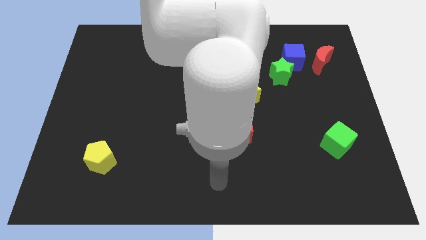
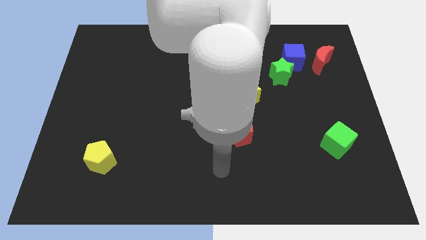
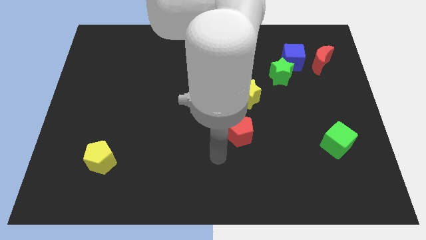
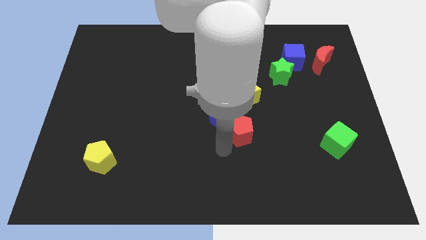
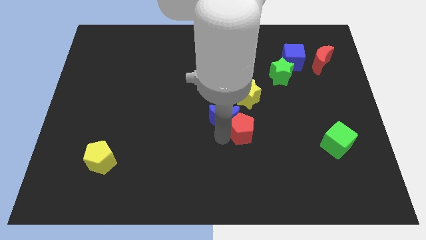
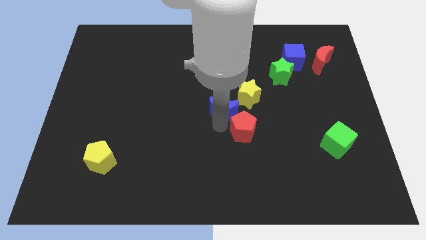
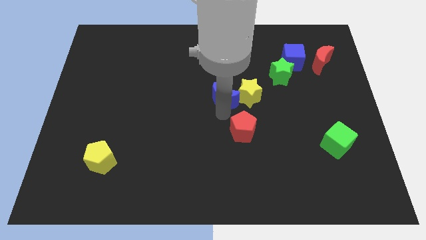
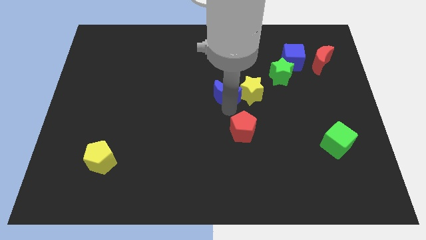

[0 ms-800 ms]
move the red pentagon away from the blue moon

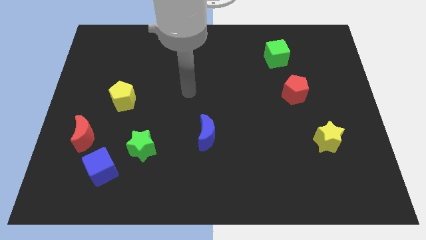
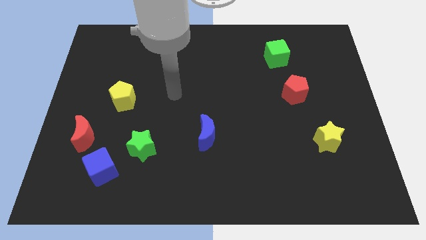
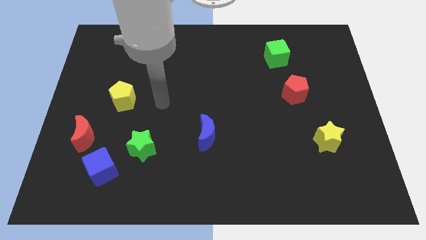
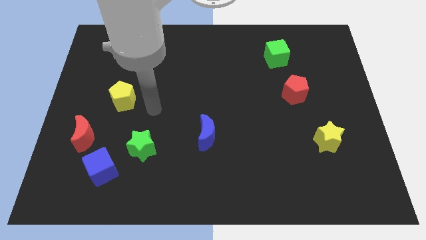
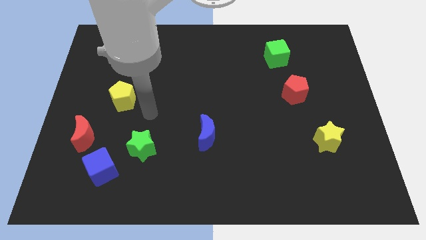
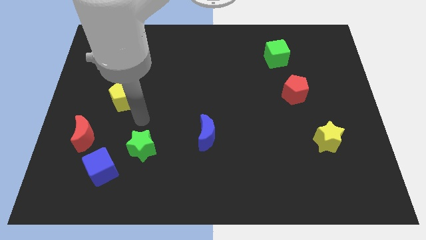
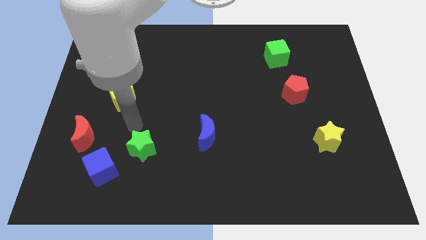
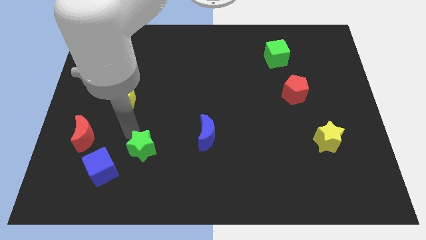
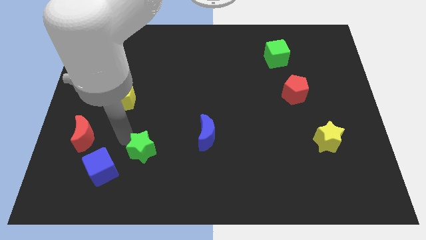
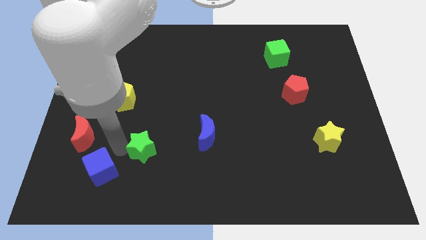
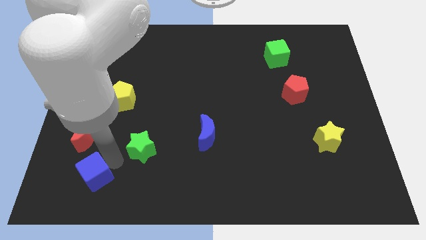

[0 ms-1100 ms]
move the green star away from the blue cube

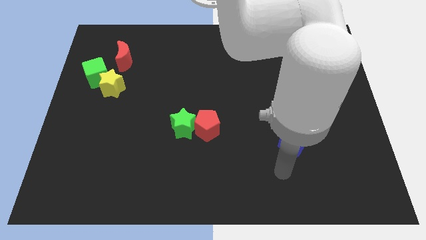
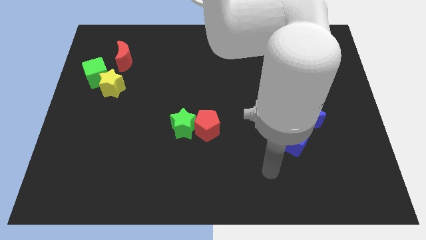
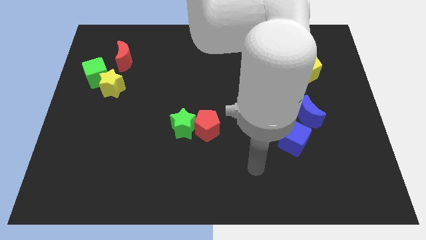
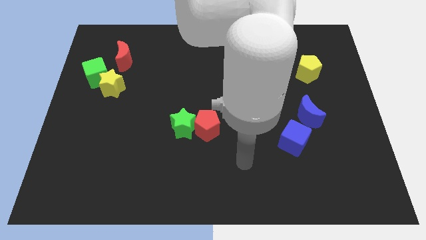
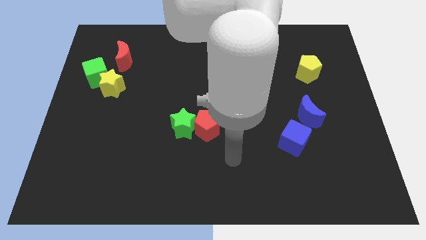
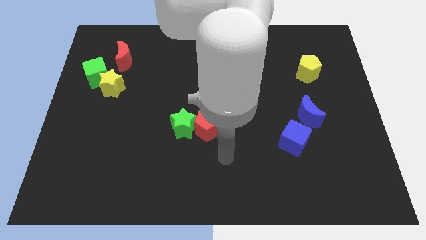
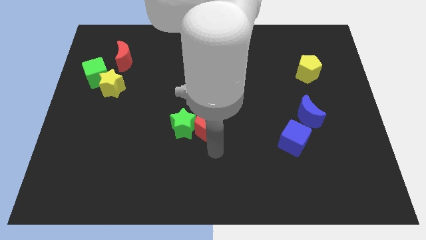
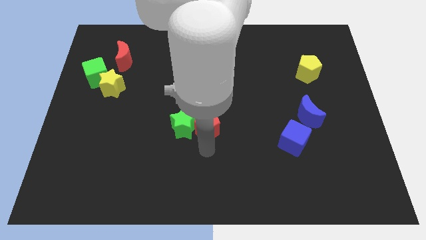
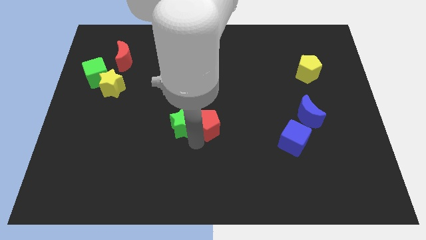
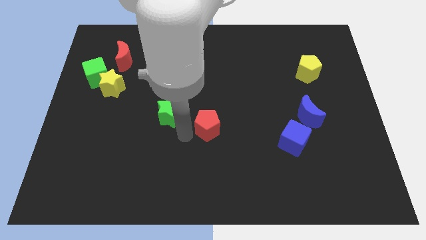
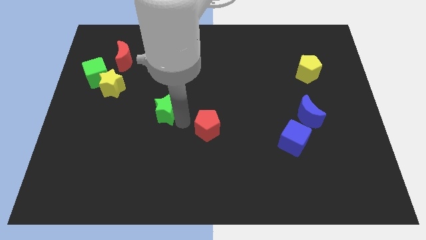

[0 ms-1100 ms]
separate the red pentagon from the green star

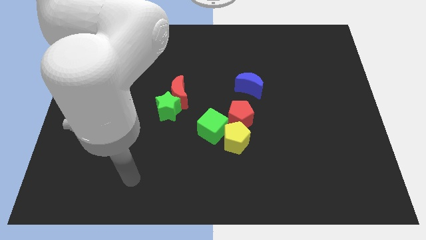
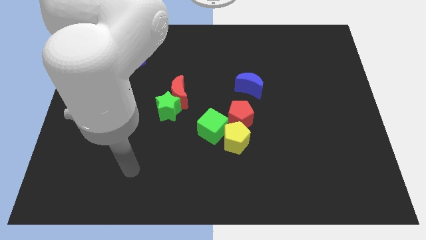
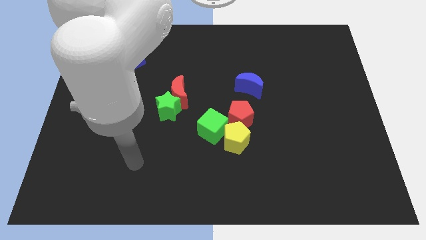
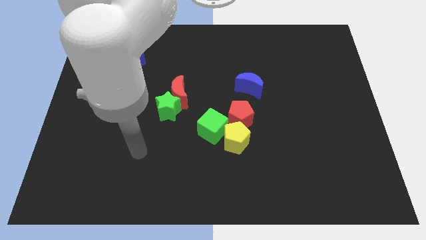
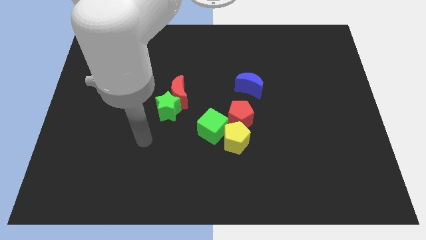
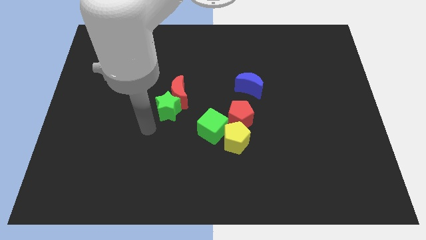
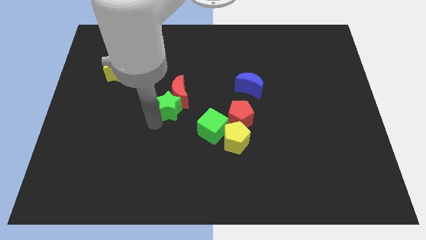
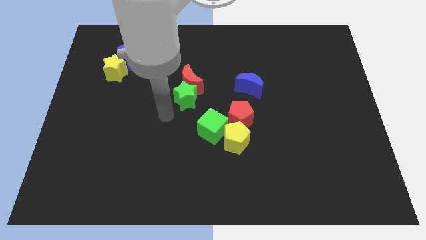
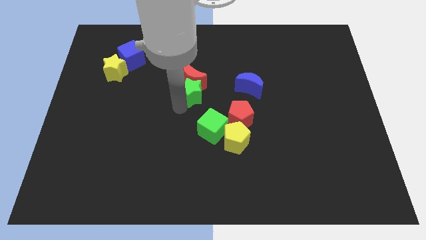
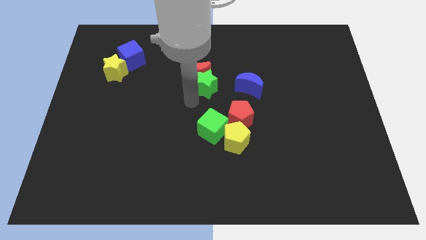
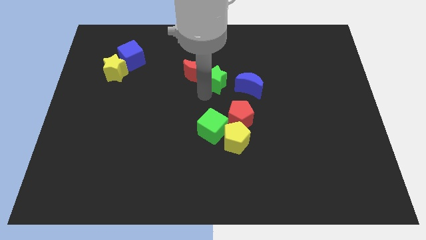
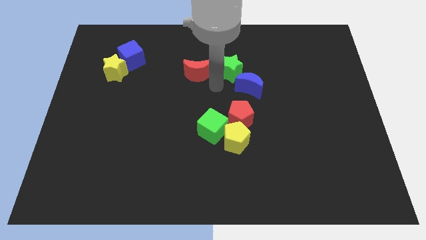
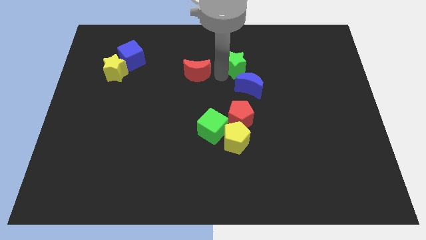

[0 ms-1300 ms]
pull the red moon apart from the green star

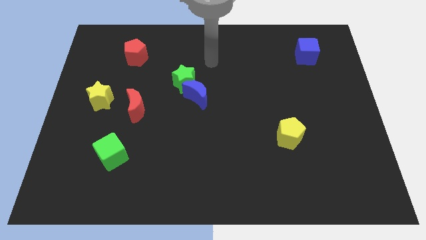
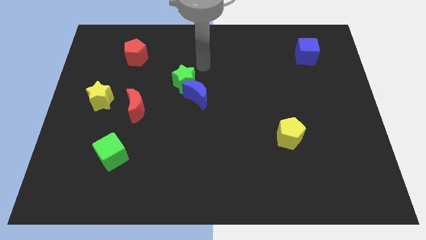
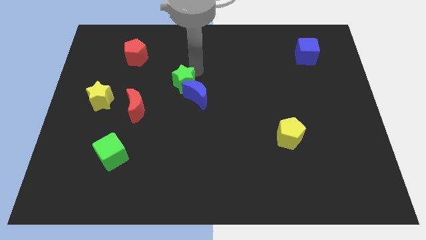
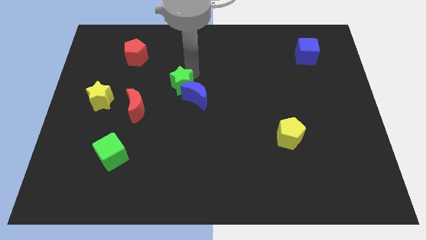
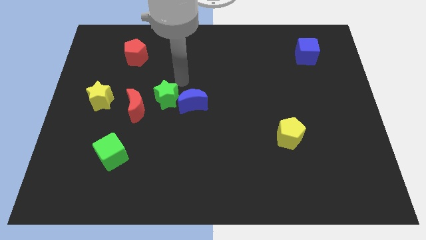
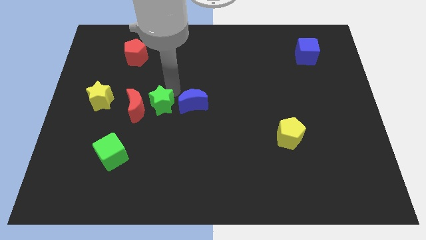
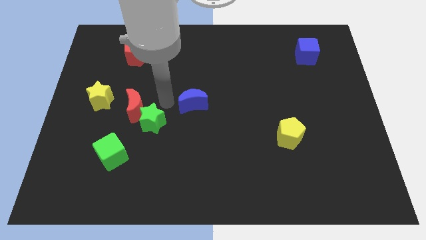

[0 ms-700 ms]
pull the blue moon apart from the green star

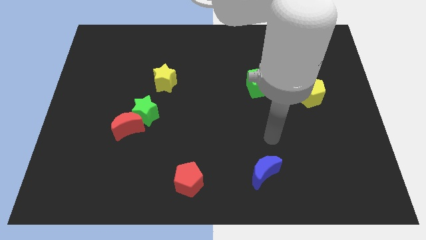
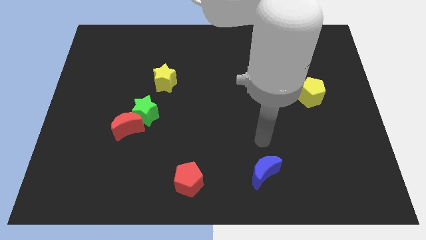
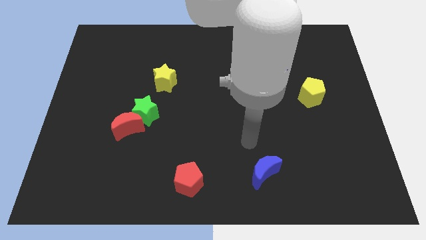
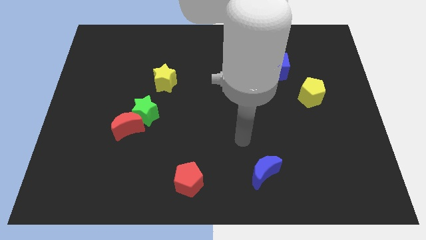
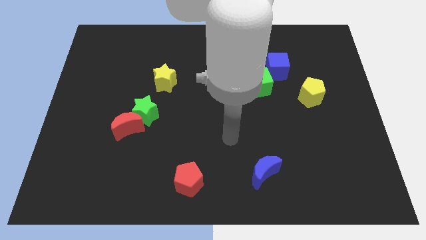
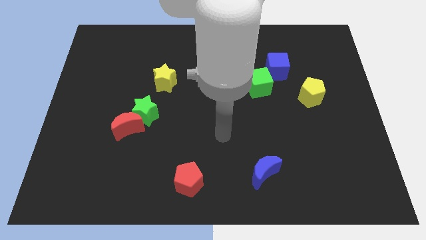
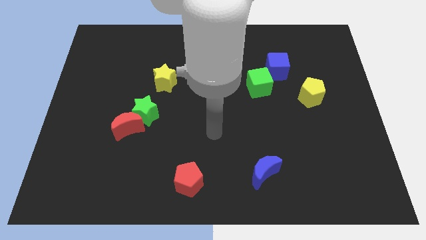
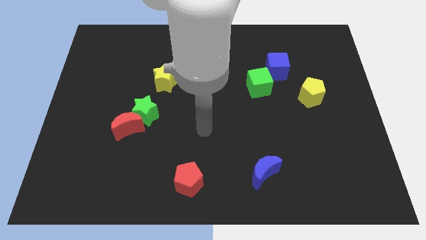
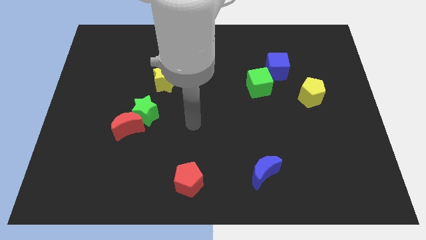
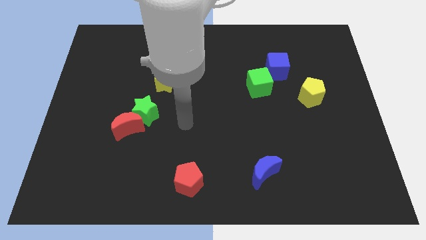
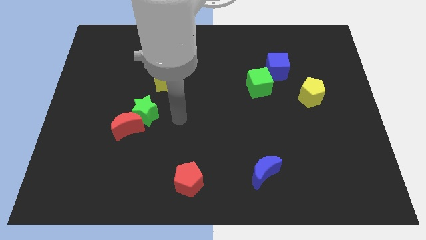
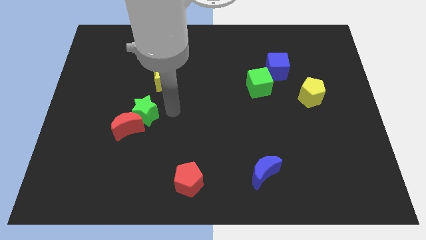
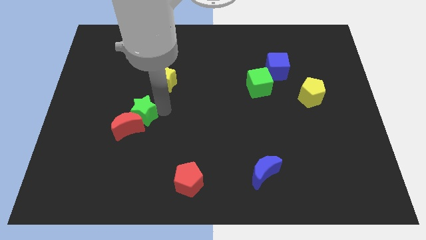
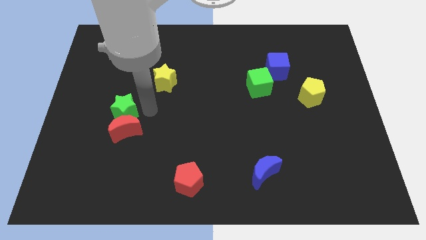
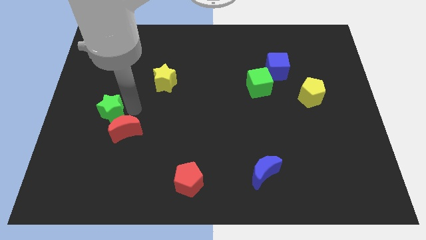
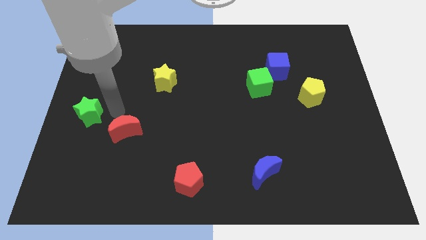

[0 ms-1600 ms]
move the red moon away from the green star

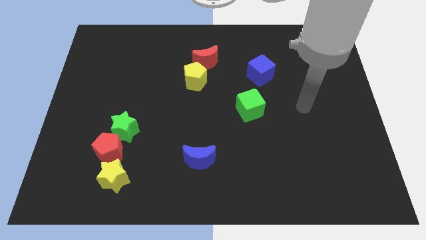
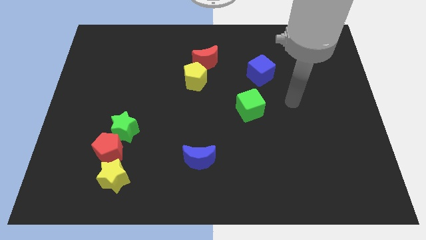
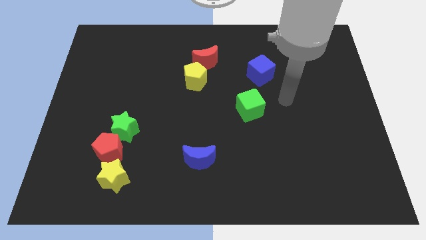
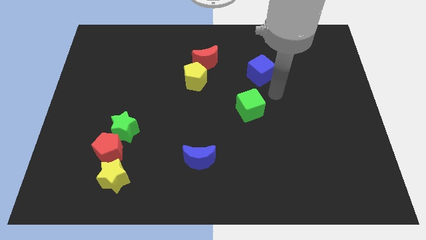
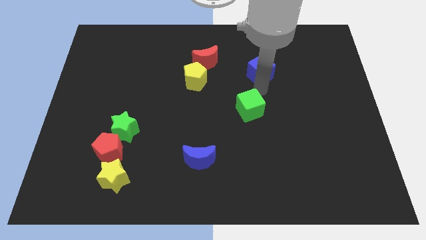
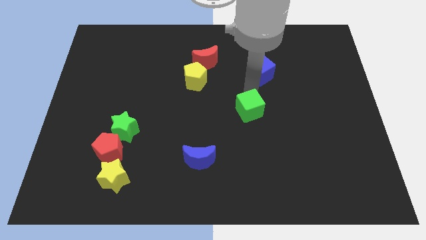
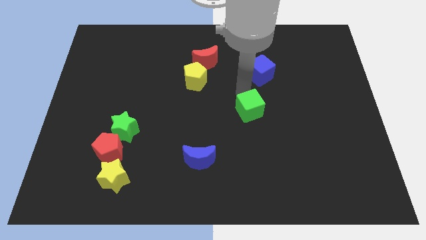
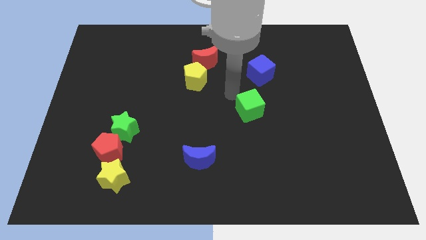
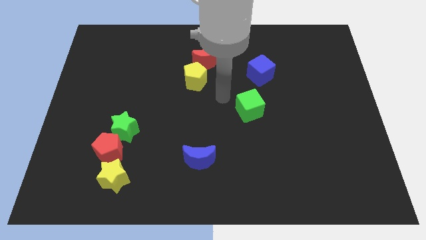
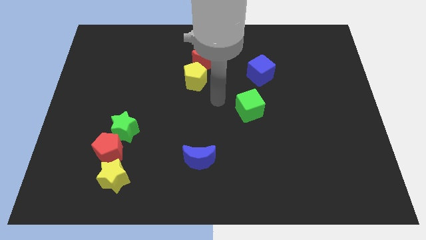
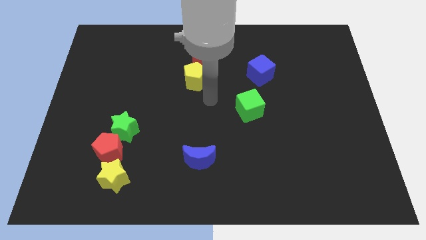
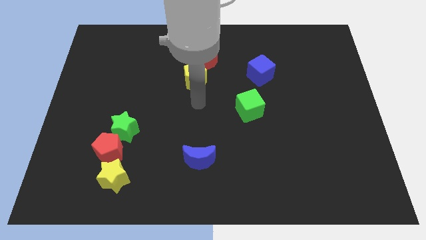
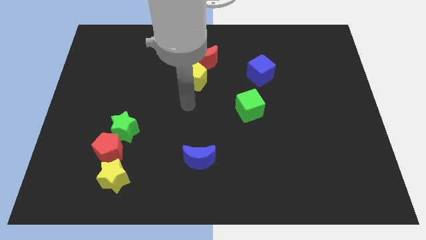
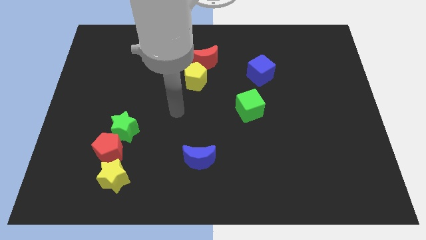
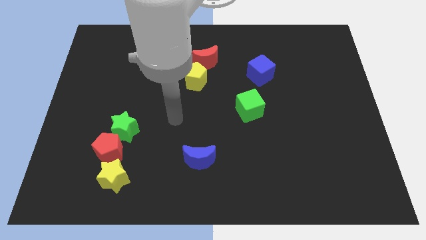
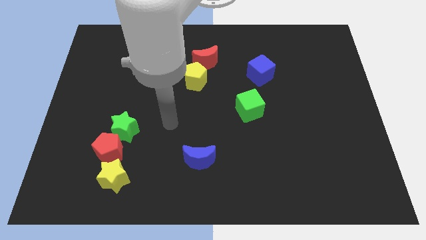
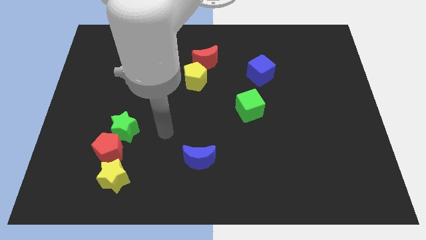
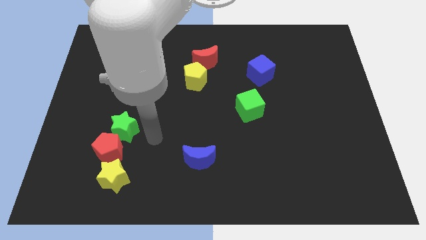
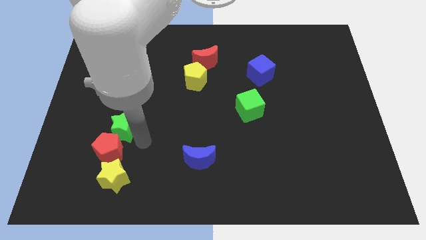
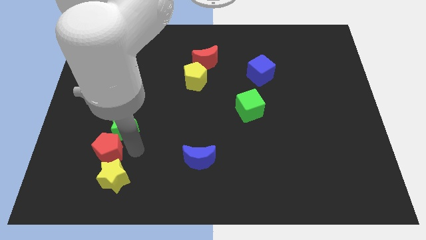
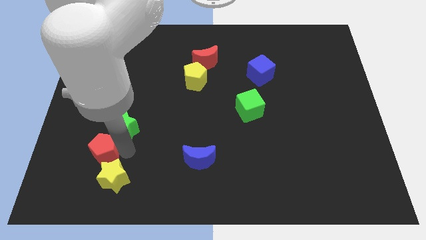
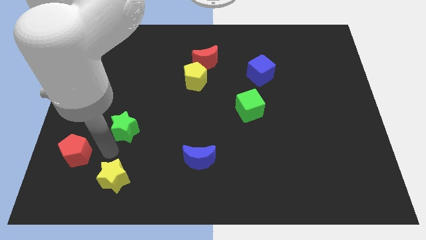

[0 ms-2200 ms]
separate the green star from the red pentagon

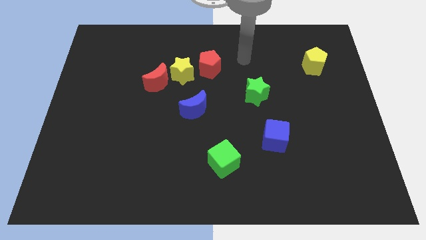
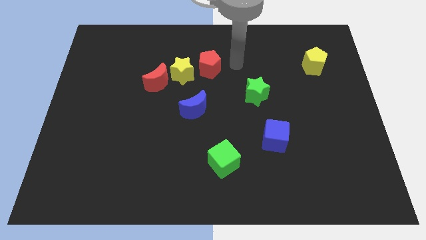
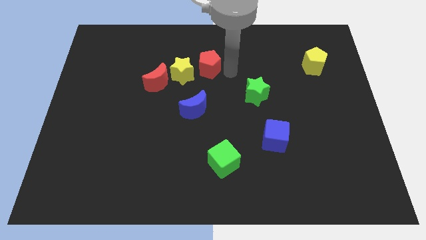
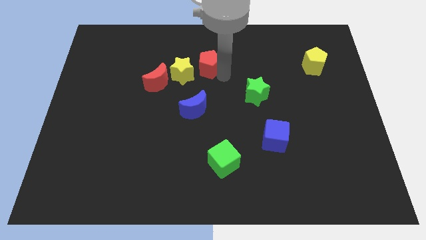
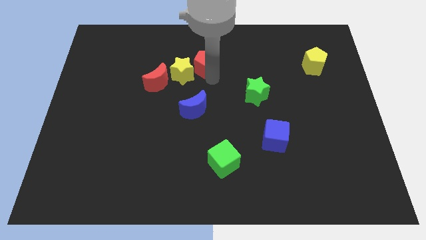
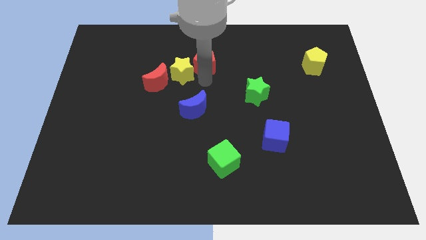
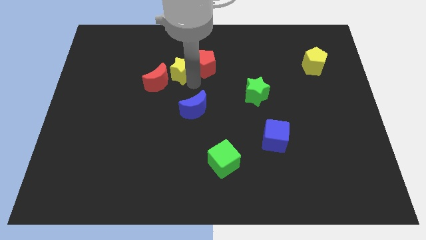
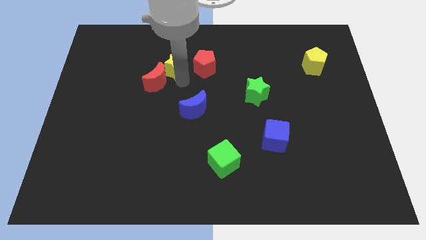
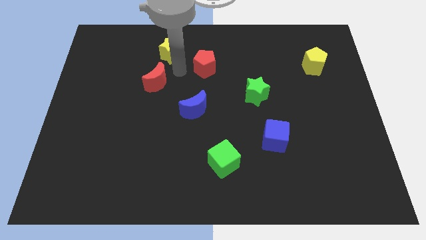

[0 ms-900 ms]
pull the red moon apart from the yellow star
